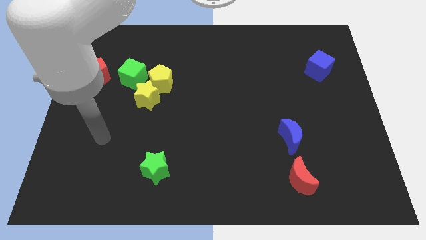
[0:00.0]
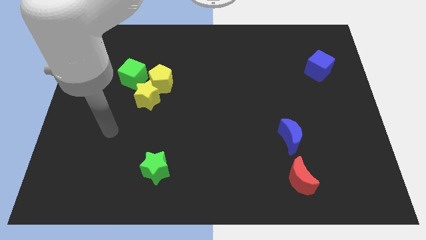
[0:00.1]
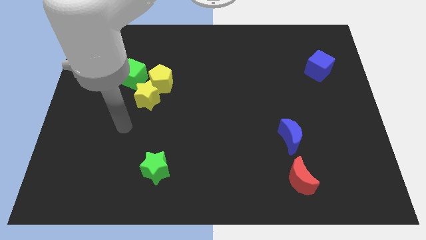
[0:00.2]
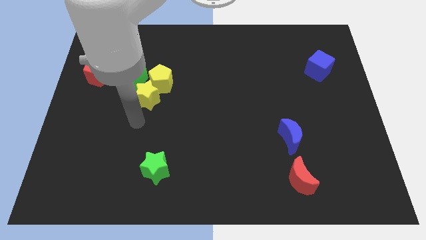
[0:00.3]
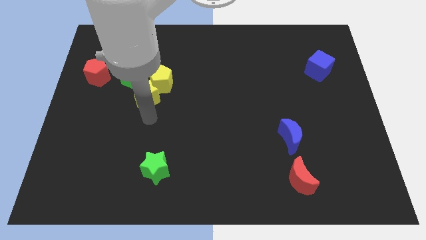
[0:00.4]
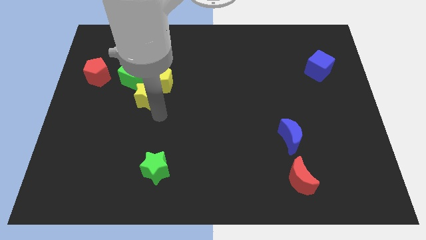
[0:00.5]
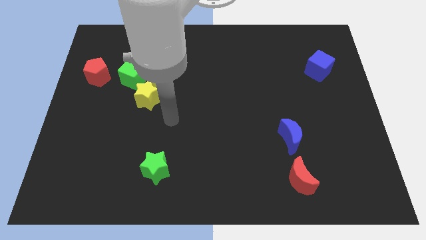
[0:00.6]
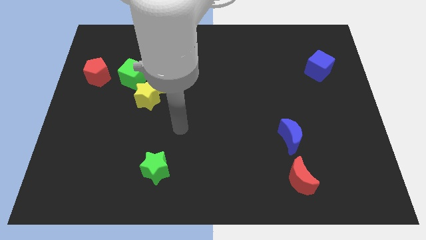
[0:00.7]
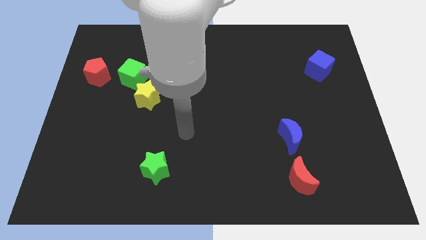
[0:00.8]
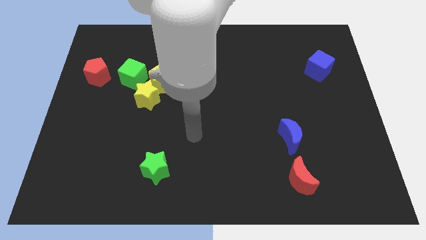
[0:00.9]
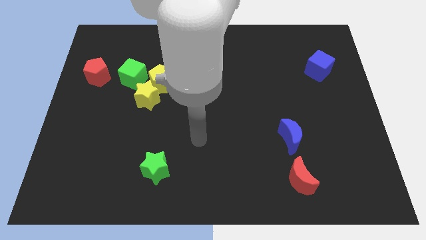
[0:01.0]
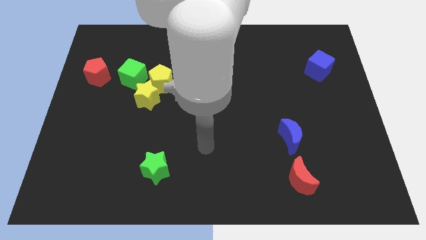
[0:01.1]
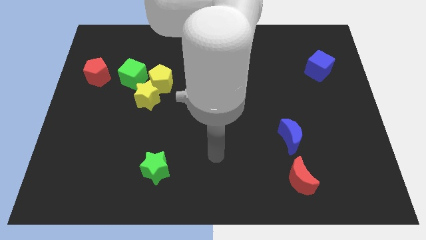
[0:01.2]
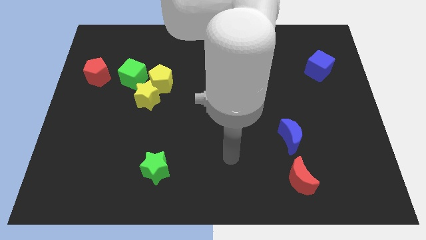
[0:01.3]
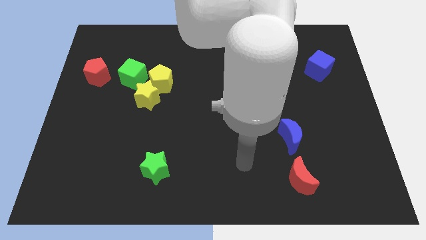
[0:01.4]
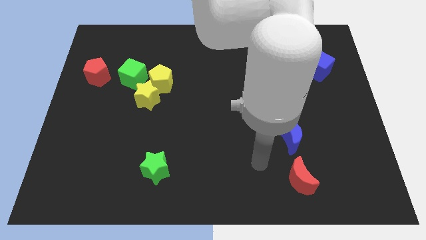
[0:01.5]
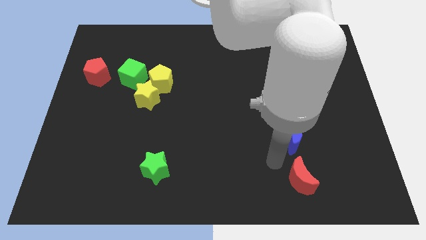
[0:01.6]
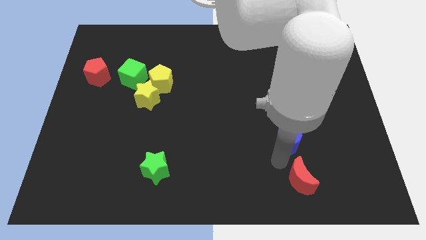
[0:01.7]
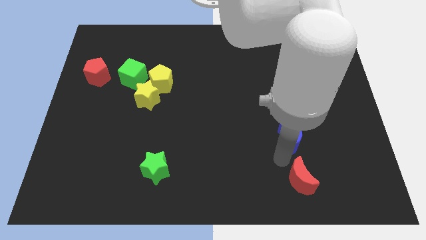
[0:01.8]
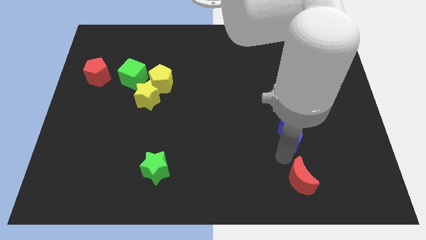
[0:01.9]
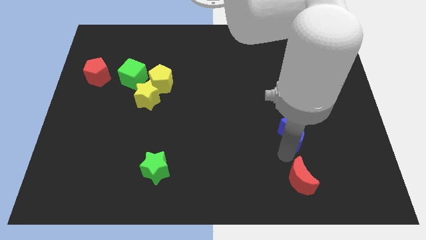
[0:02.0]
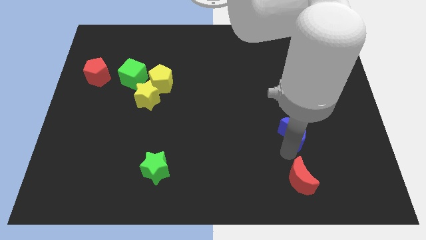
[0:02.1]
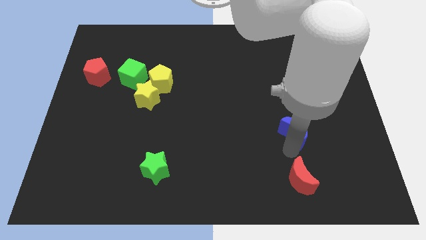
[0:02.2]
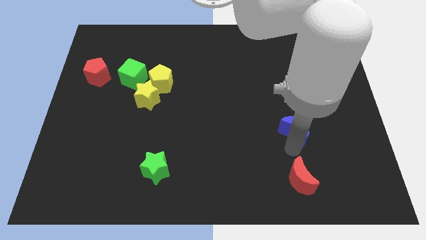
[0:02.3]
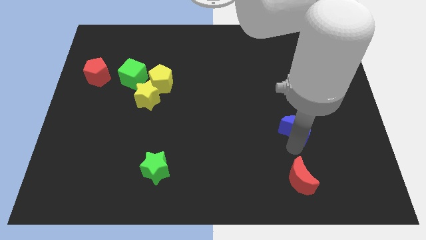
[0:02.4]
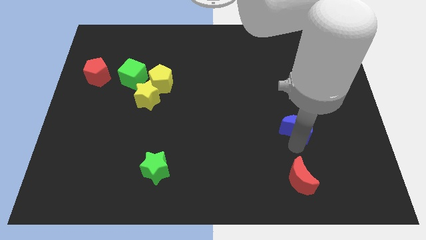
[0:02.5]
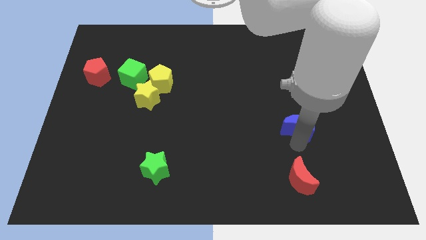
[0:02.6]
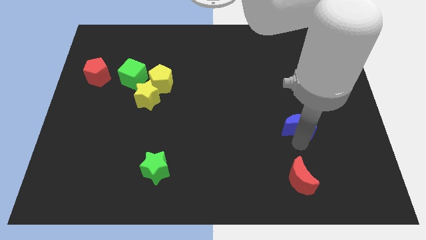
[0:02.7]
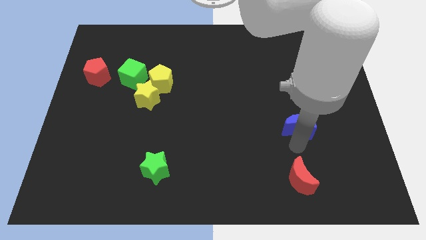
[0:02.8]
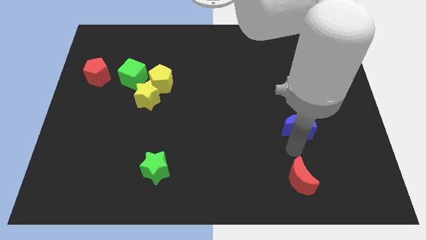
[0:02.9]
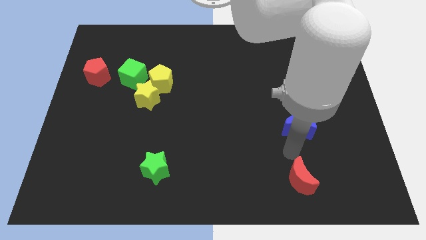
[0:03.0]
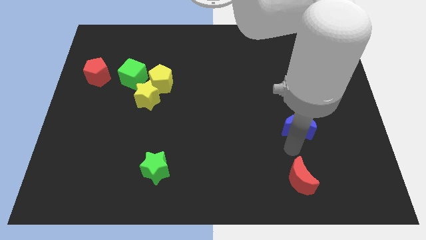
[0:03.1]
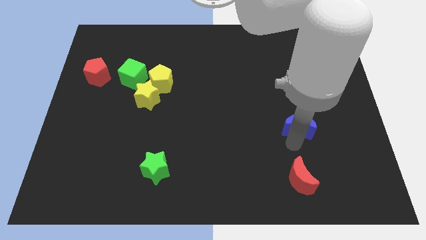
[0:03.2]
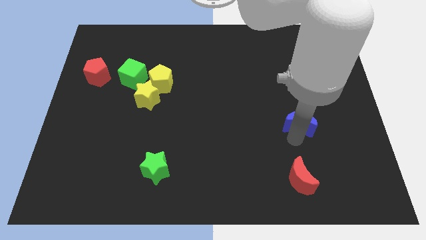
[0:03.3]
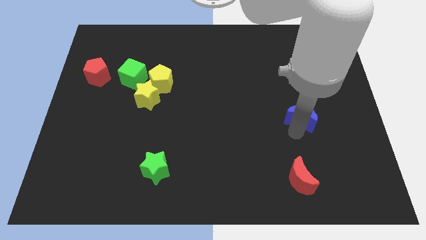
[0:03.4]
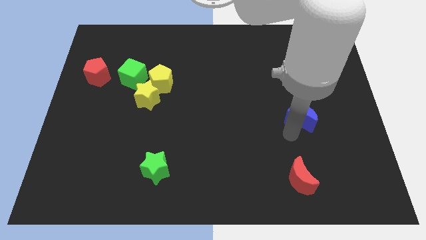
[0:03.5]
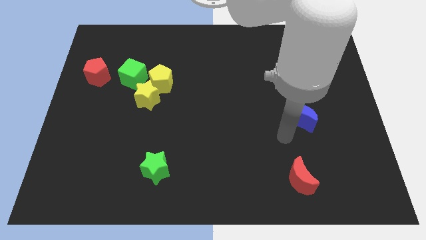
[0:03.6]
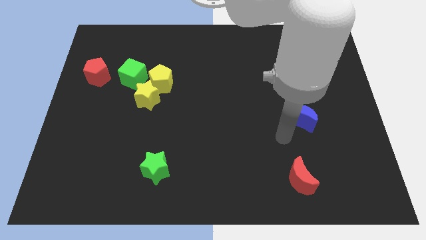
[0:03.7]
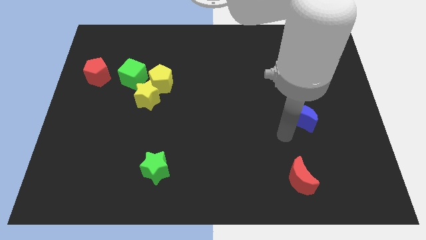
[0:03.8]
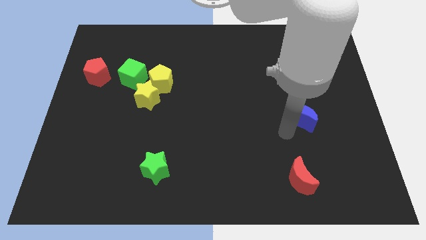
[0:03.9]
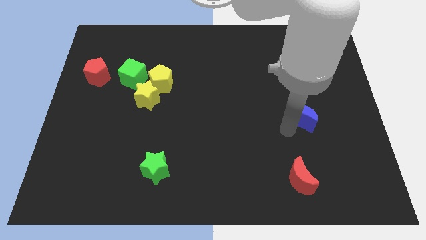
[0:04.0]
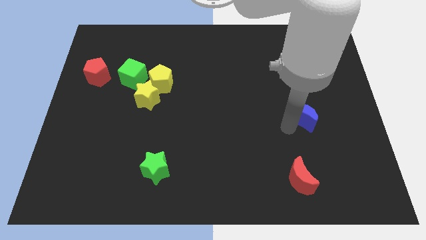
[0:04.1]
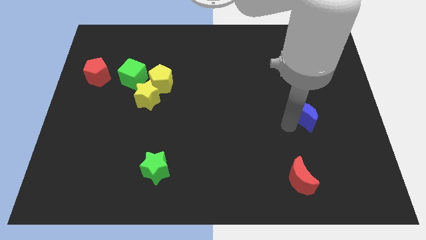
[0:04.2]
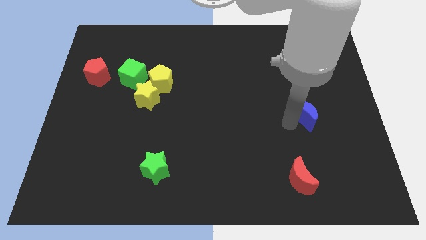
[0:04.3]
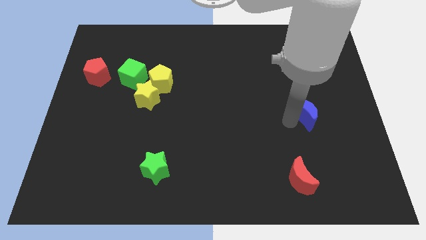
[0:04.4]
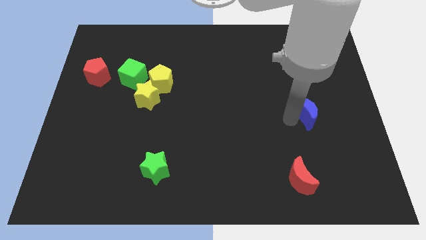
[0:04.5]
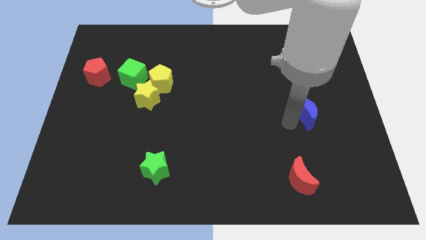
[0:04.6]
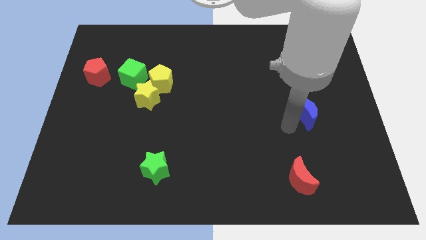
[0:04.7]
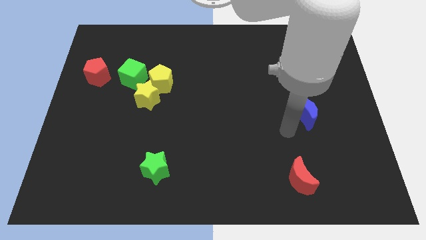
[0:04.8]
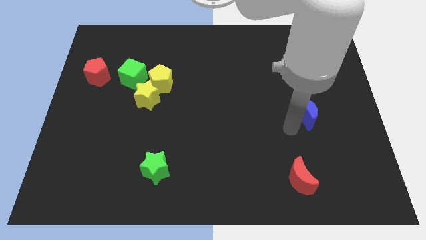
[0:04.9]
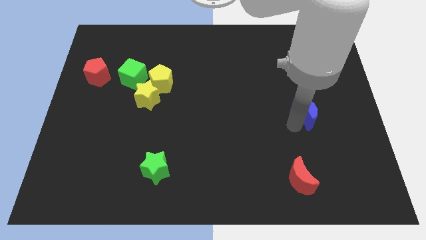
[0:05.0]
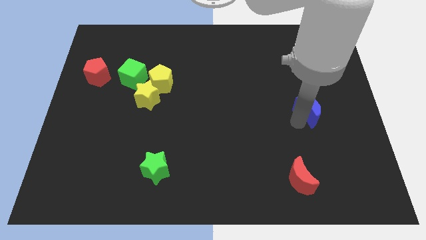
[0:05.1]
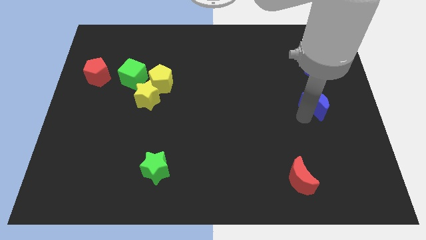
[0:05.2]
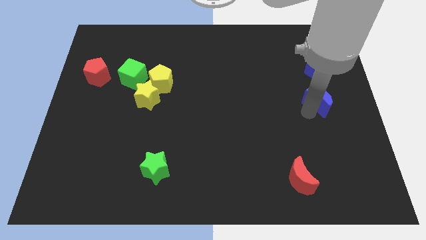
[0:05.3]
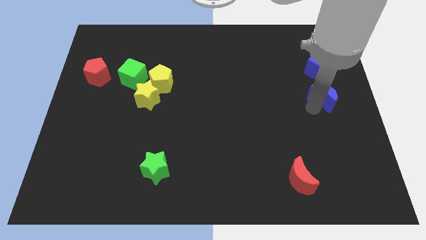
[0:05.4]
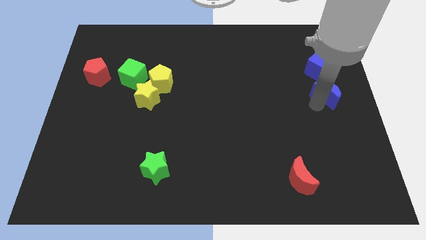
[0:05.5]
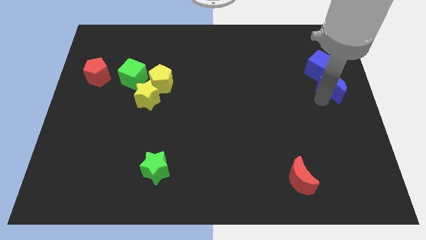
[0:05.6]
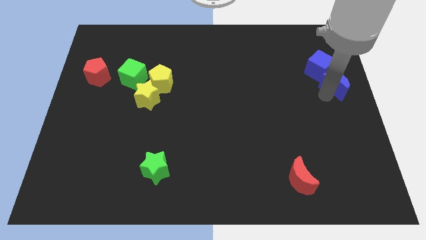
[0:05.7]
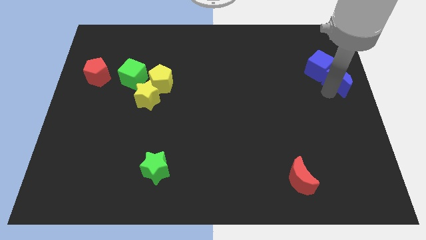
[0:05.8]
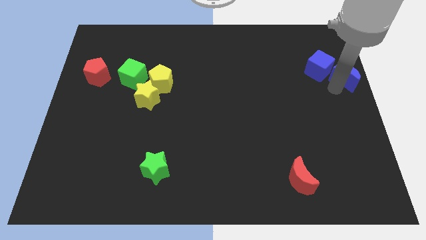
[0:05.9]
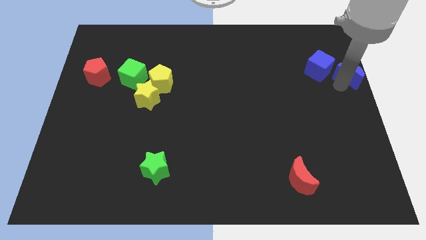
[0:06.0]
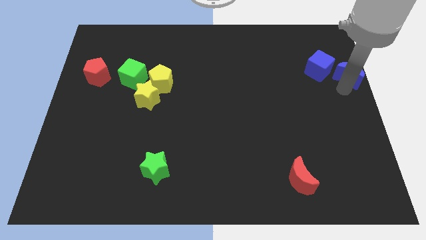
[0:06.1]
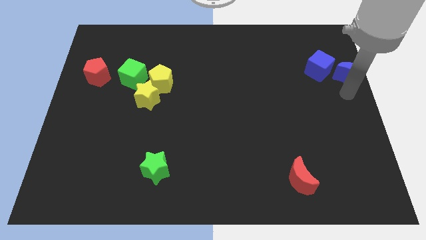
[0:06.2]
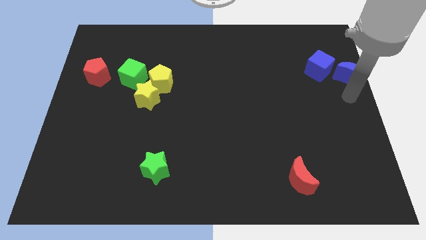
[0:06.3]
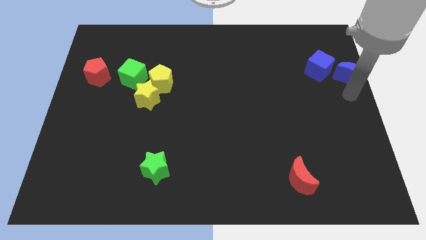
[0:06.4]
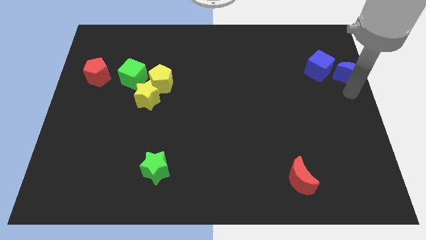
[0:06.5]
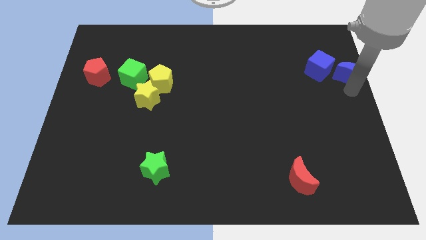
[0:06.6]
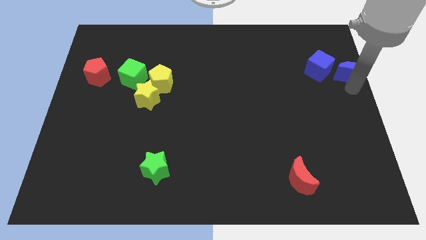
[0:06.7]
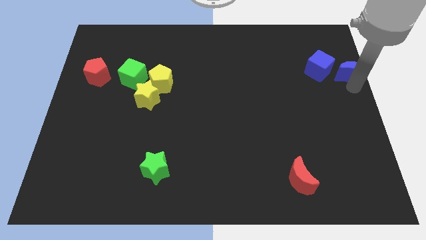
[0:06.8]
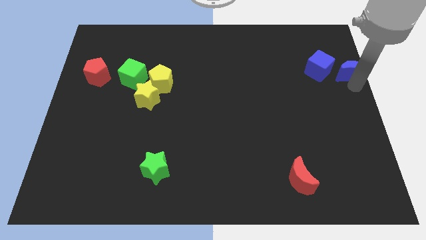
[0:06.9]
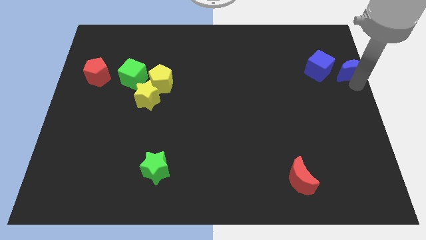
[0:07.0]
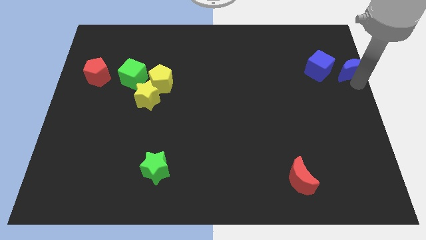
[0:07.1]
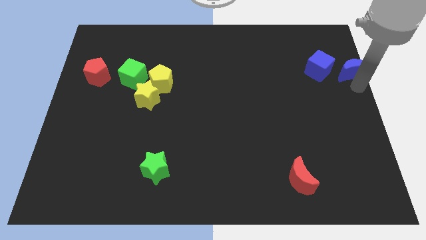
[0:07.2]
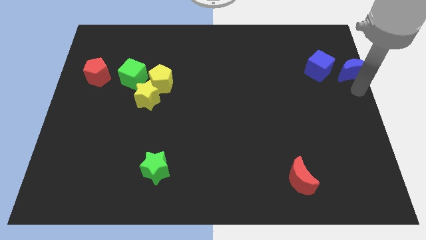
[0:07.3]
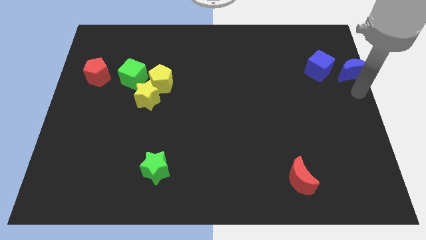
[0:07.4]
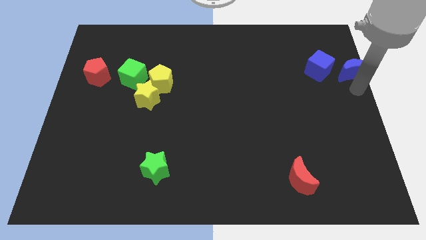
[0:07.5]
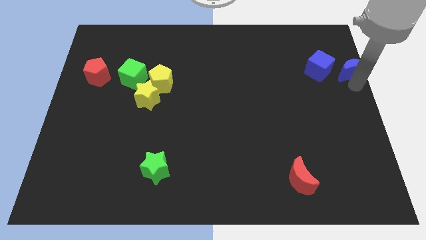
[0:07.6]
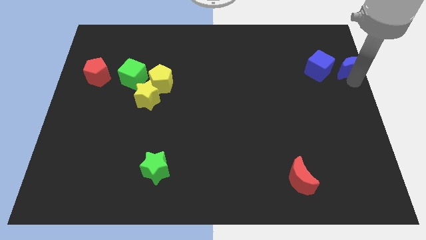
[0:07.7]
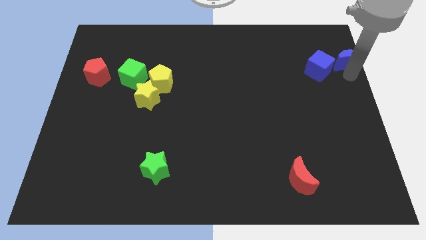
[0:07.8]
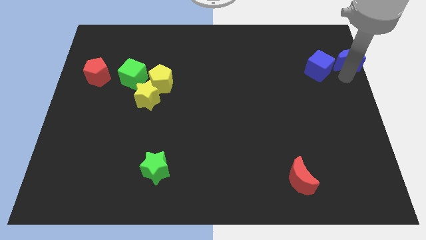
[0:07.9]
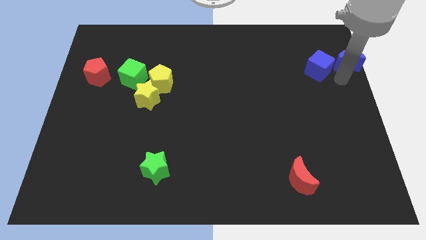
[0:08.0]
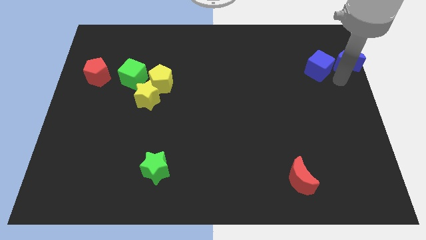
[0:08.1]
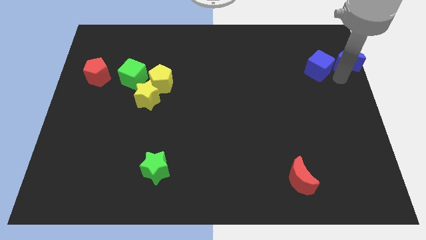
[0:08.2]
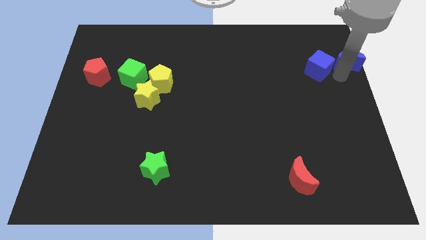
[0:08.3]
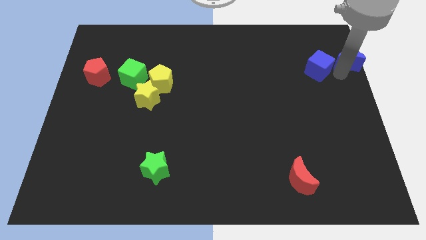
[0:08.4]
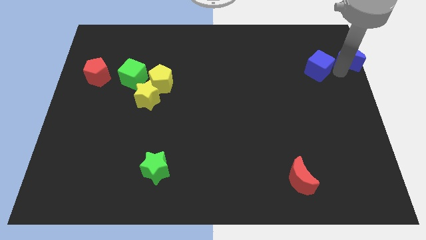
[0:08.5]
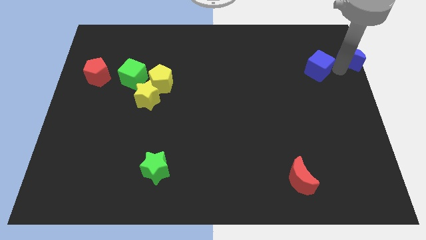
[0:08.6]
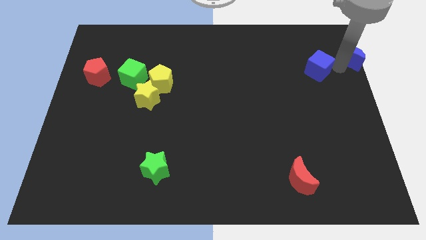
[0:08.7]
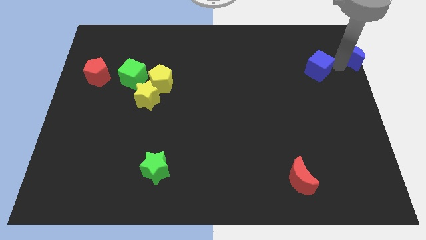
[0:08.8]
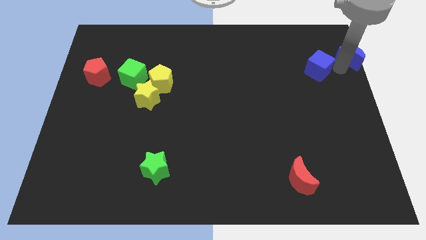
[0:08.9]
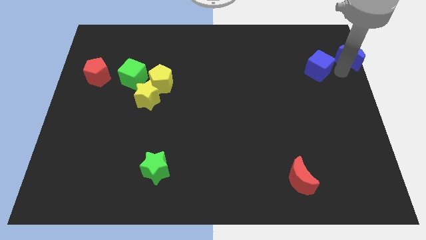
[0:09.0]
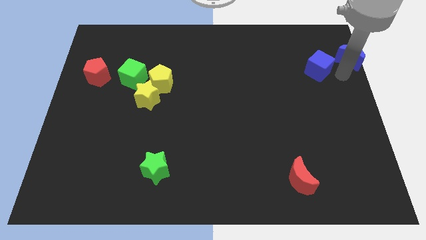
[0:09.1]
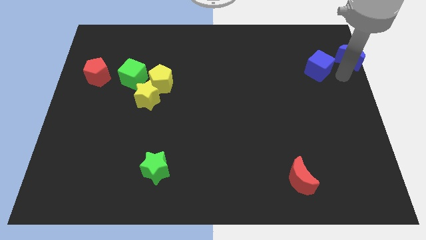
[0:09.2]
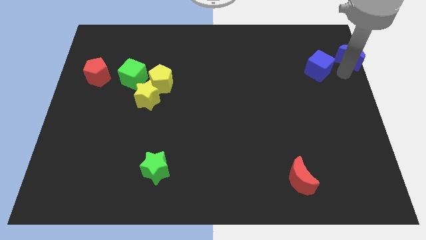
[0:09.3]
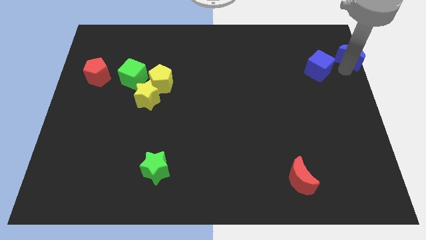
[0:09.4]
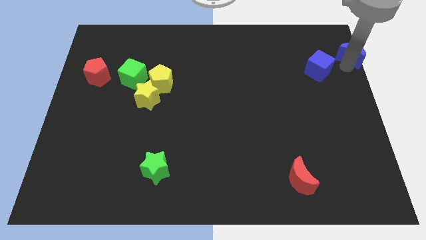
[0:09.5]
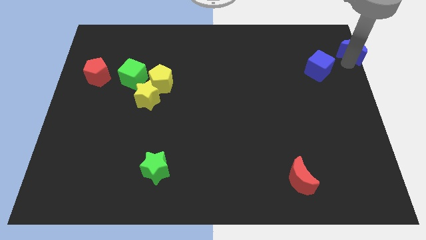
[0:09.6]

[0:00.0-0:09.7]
put the blue moon to the top right corner
